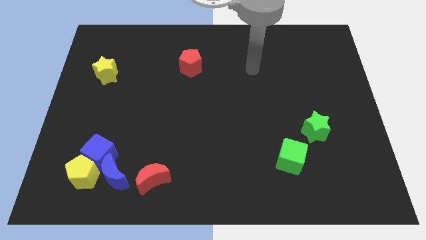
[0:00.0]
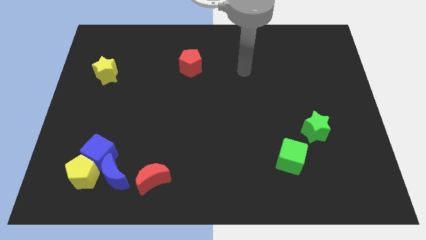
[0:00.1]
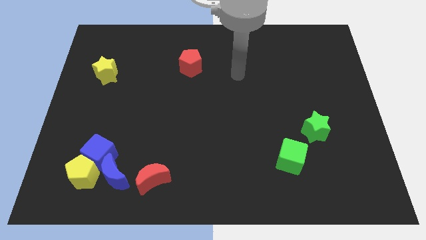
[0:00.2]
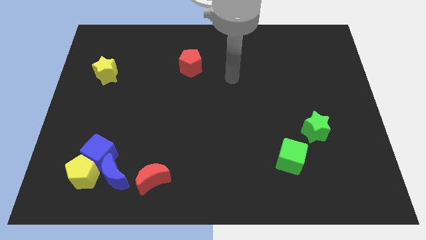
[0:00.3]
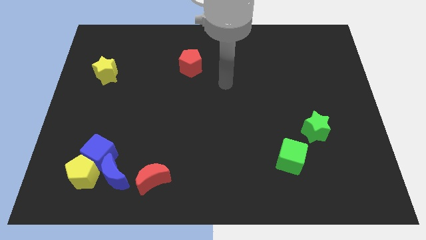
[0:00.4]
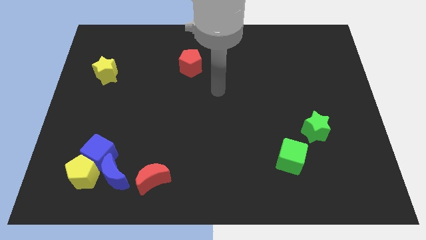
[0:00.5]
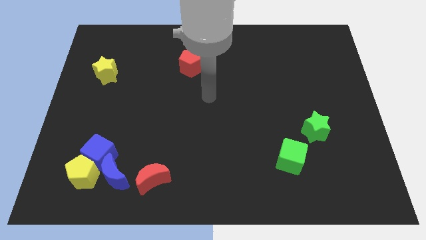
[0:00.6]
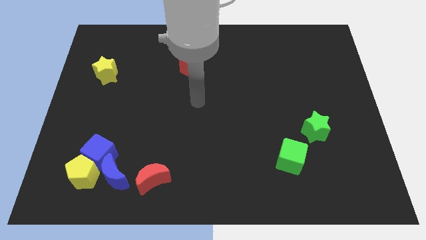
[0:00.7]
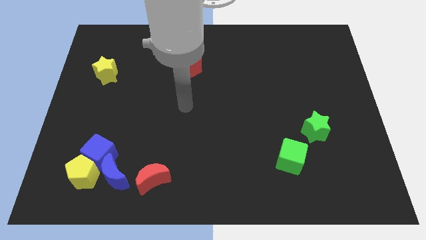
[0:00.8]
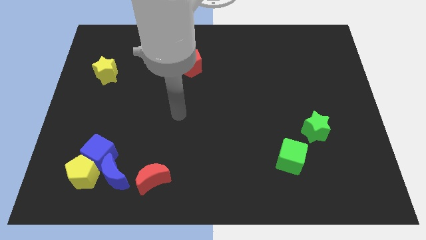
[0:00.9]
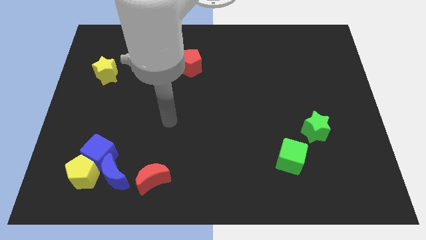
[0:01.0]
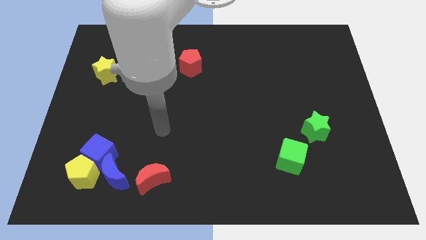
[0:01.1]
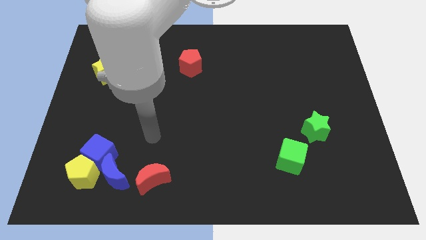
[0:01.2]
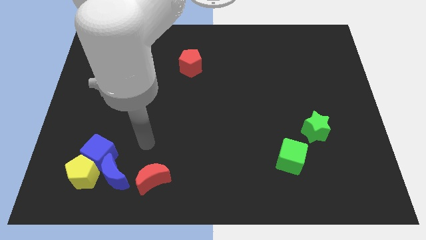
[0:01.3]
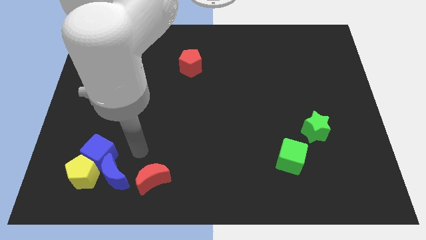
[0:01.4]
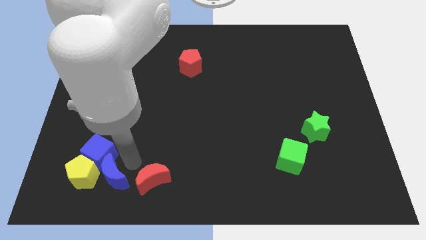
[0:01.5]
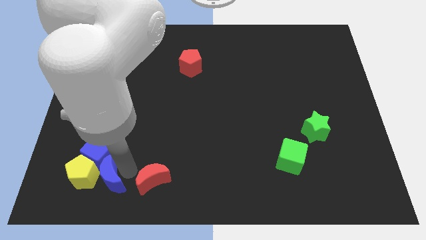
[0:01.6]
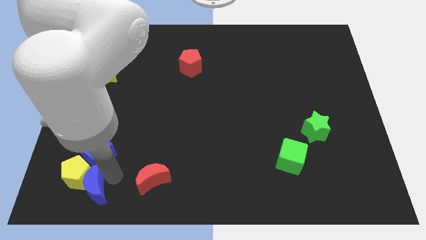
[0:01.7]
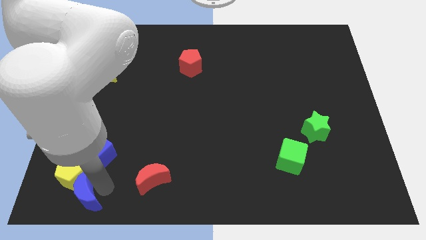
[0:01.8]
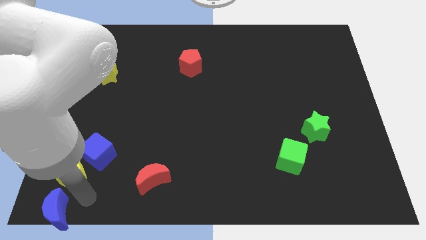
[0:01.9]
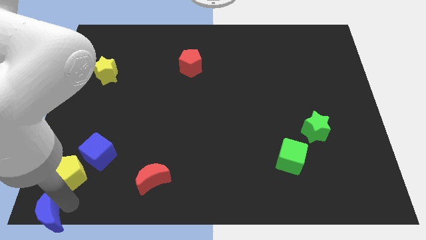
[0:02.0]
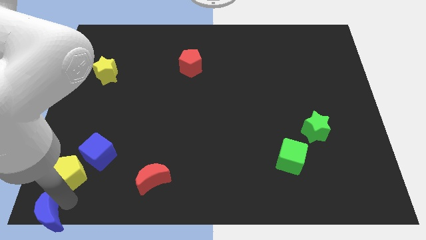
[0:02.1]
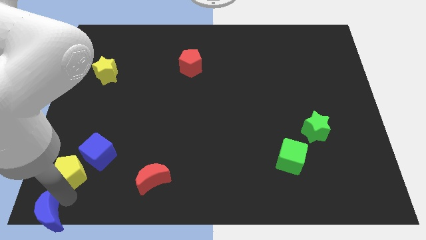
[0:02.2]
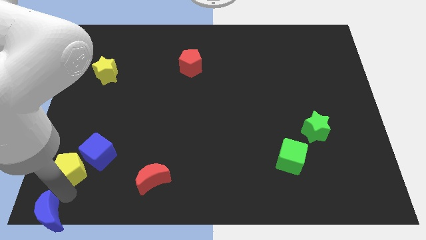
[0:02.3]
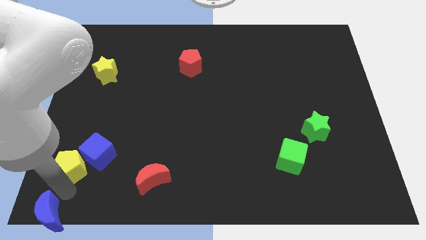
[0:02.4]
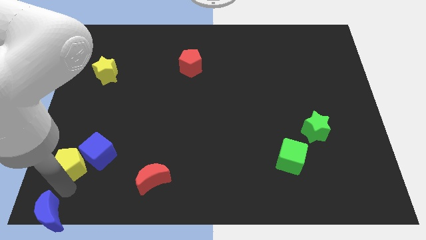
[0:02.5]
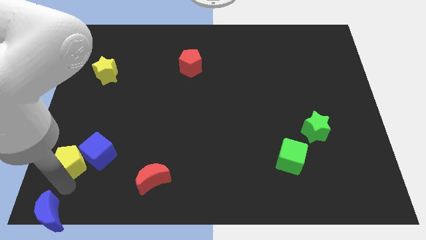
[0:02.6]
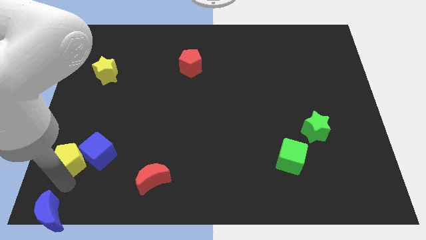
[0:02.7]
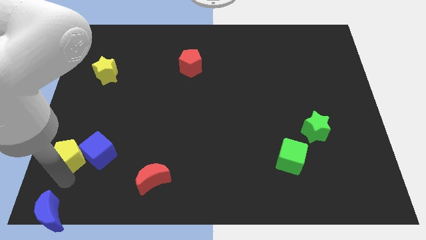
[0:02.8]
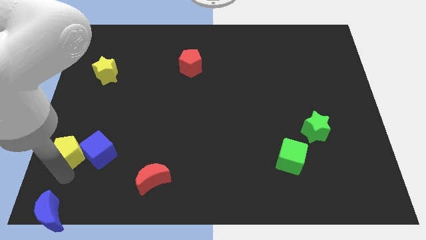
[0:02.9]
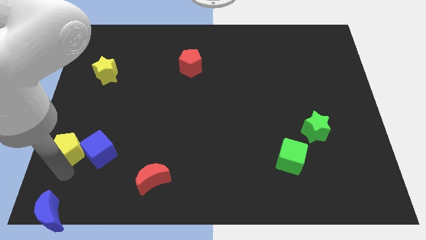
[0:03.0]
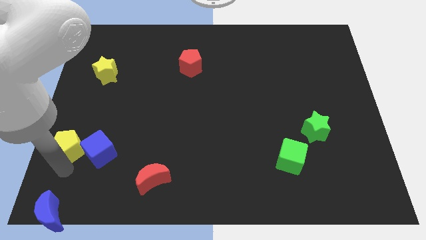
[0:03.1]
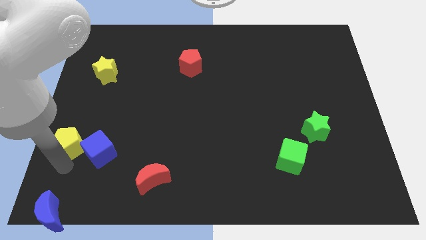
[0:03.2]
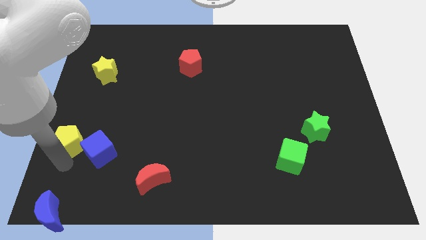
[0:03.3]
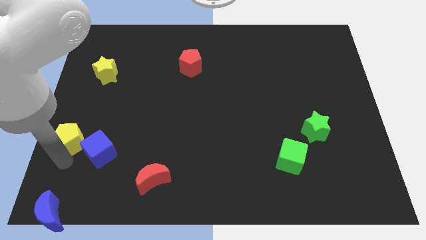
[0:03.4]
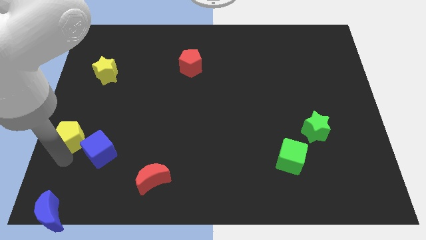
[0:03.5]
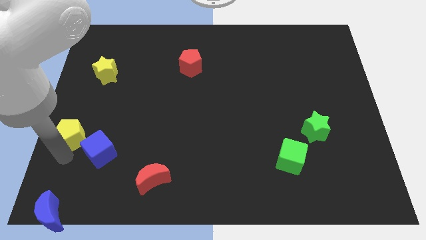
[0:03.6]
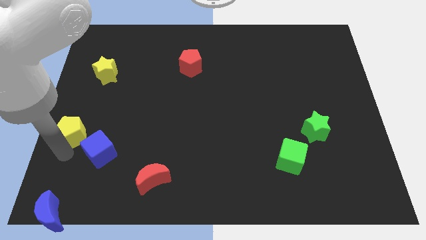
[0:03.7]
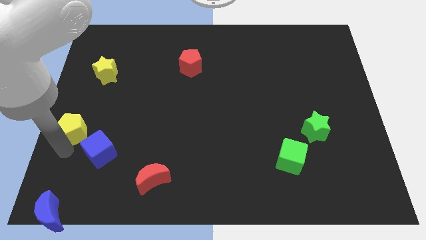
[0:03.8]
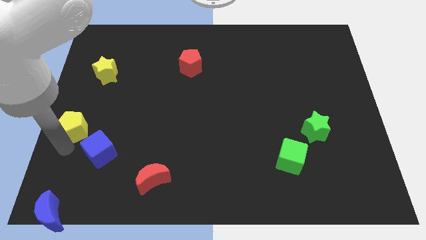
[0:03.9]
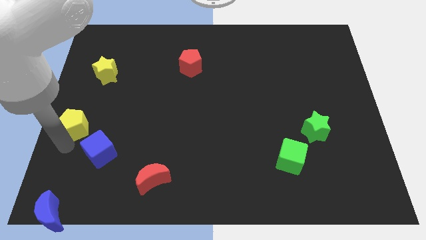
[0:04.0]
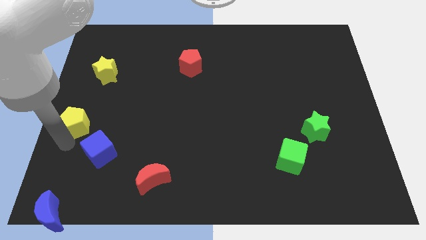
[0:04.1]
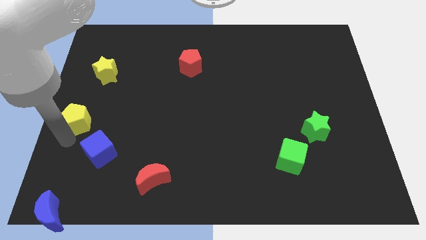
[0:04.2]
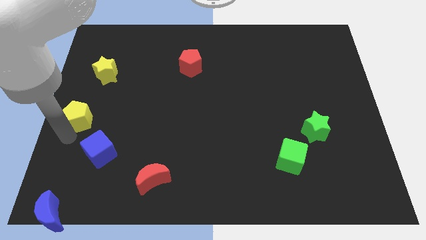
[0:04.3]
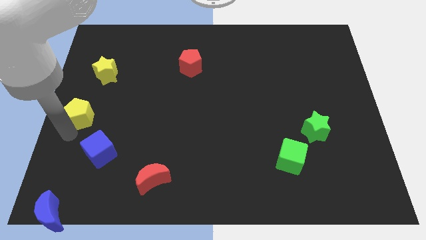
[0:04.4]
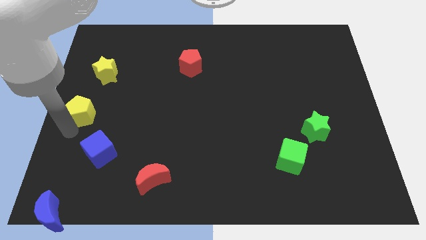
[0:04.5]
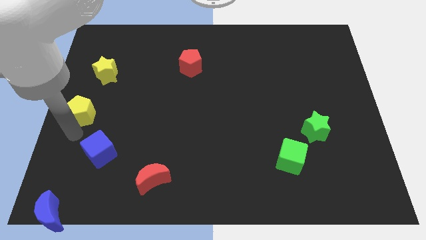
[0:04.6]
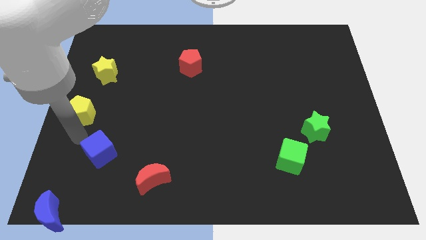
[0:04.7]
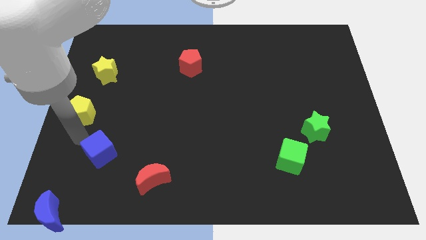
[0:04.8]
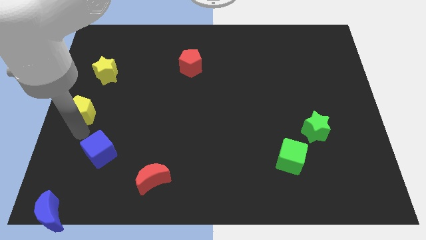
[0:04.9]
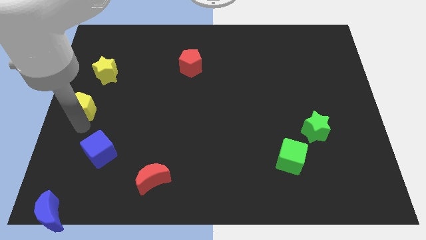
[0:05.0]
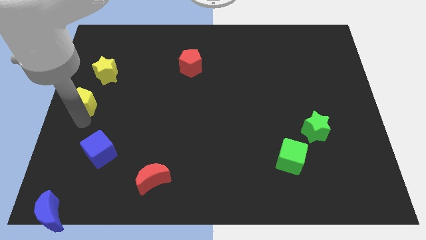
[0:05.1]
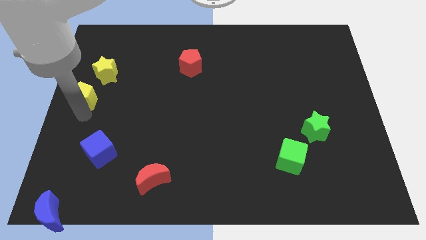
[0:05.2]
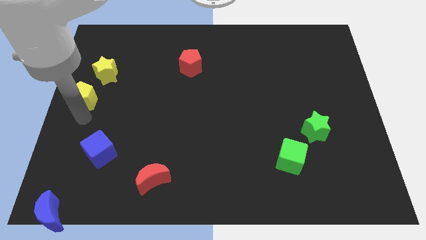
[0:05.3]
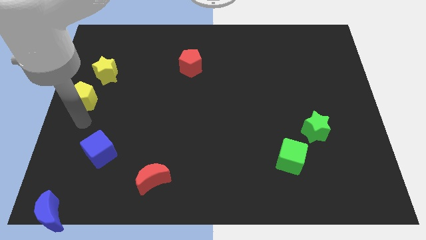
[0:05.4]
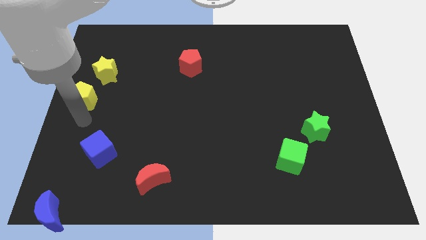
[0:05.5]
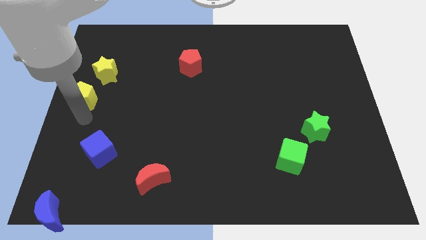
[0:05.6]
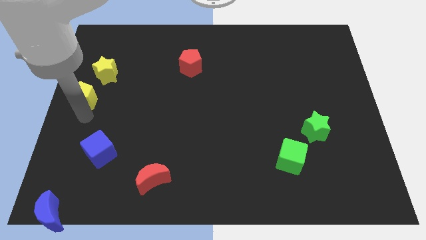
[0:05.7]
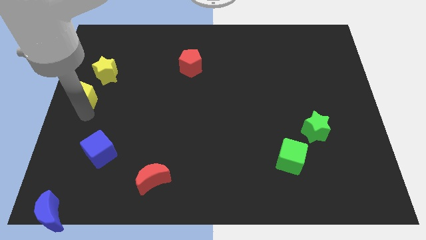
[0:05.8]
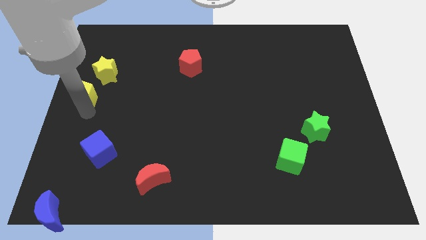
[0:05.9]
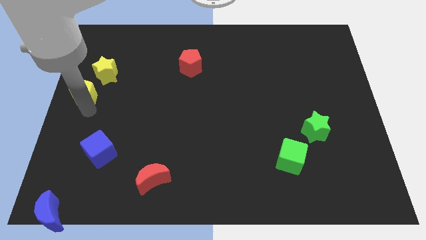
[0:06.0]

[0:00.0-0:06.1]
slide the yellow pentagon upwards

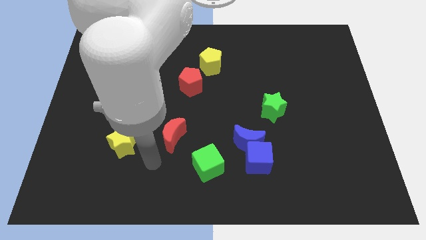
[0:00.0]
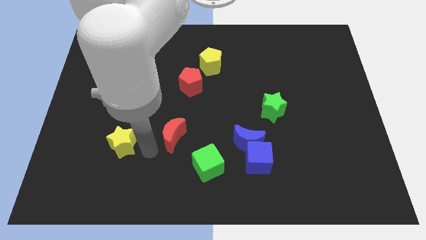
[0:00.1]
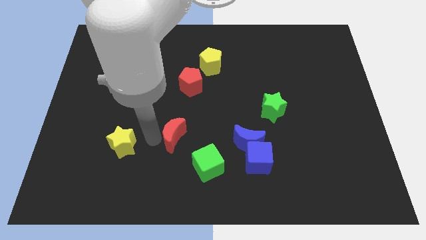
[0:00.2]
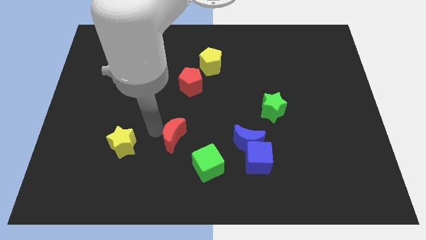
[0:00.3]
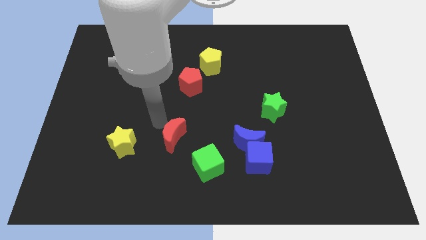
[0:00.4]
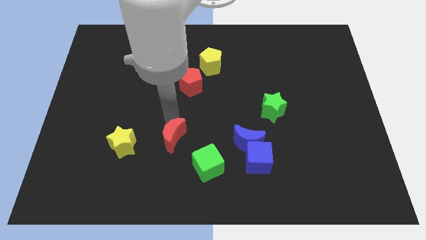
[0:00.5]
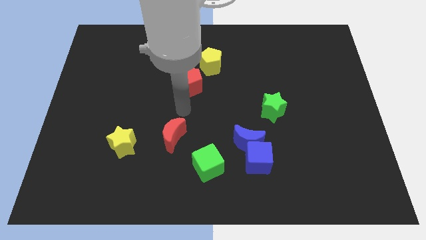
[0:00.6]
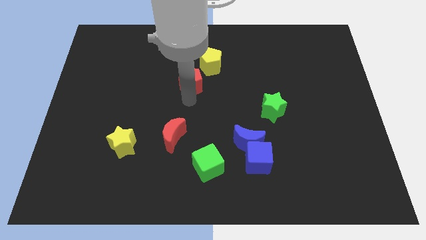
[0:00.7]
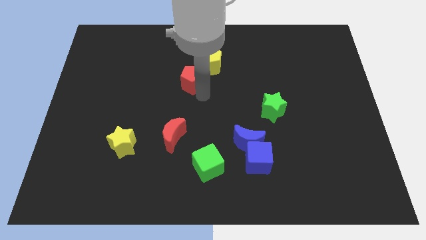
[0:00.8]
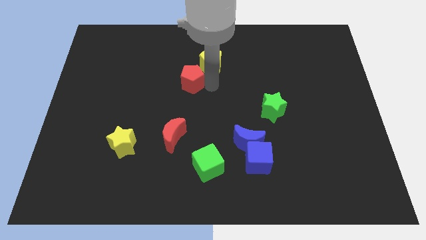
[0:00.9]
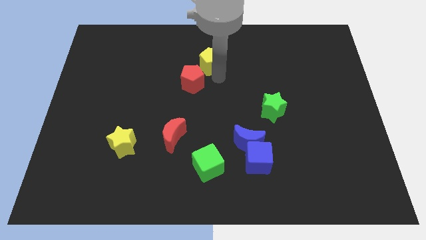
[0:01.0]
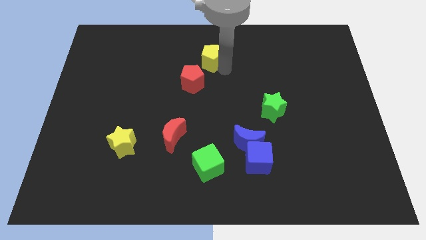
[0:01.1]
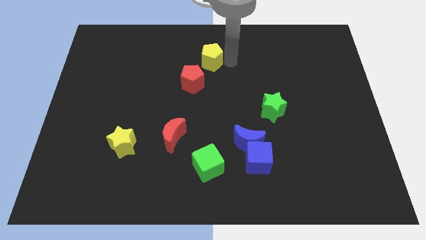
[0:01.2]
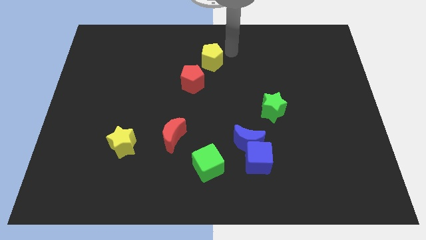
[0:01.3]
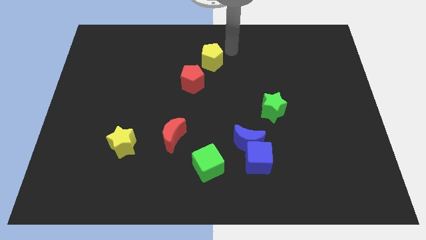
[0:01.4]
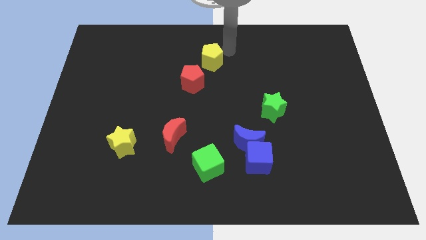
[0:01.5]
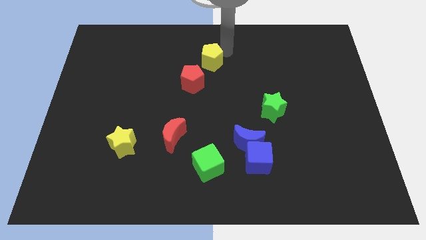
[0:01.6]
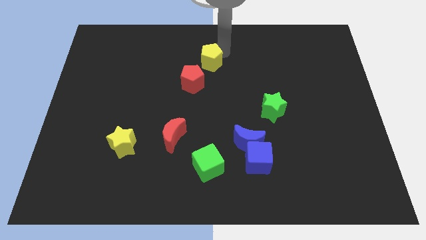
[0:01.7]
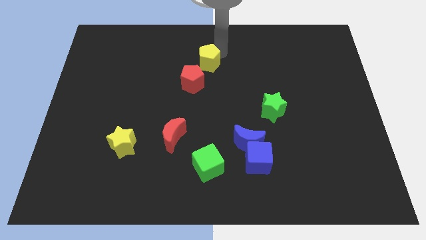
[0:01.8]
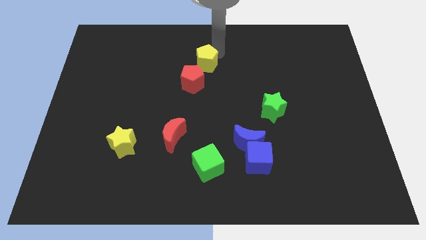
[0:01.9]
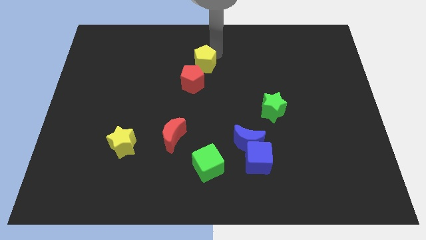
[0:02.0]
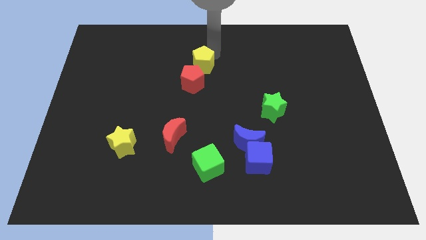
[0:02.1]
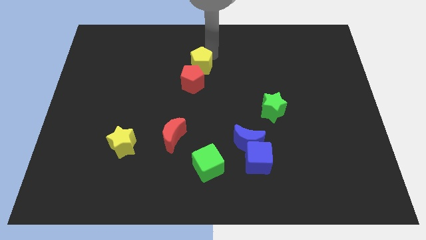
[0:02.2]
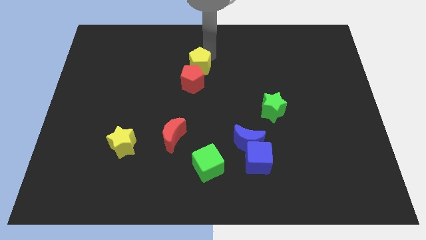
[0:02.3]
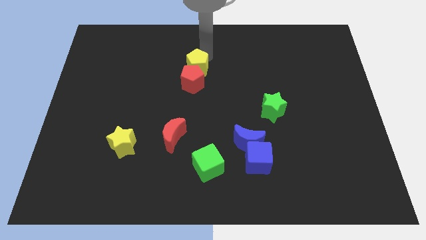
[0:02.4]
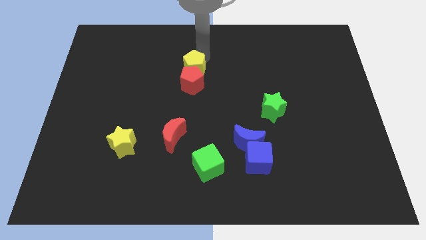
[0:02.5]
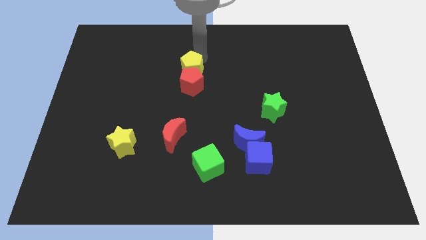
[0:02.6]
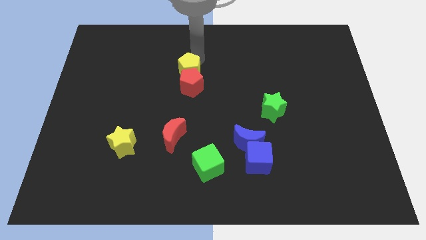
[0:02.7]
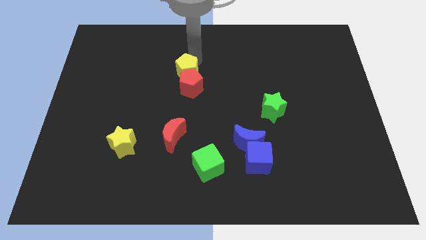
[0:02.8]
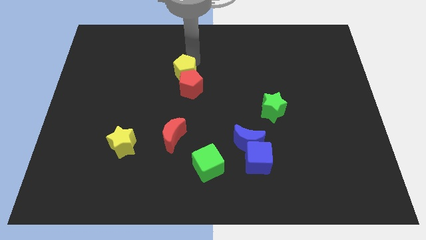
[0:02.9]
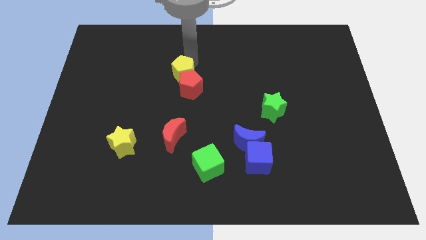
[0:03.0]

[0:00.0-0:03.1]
move the yellow pentagon slightly downwards and left diagonally
